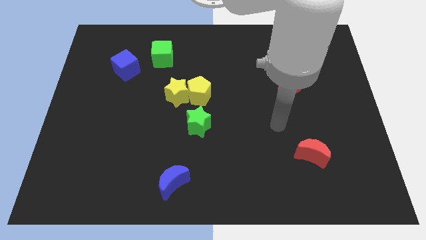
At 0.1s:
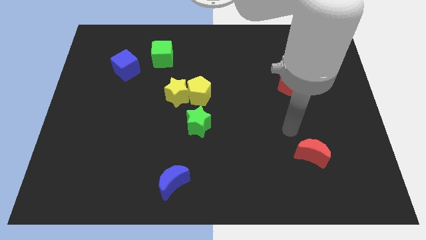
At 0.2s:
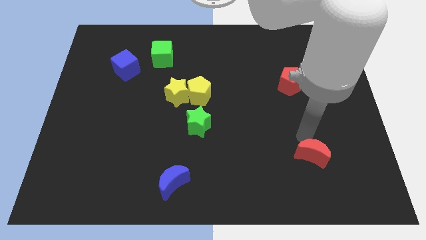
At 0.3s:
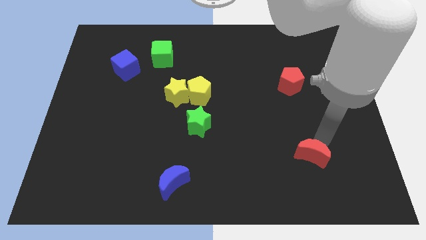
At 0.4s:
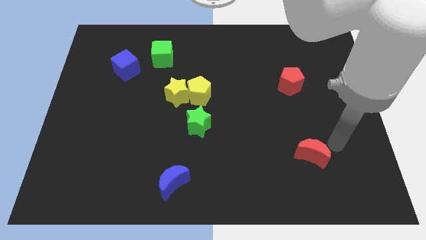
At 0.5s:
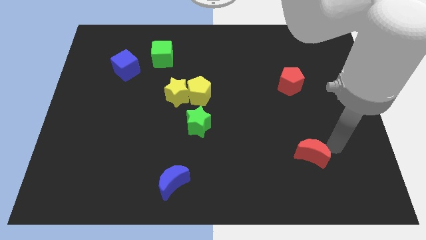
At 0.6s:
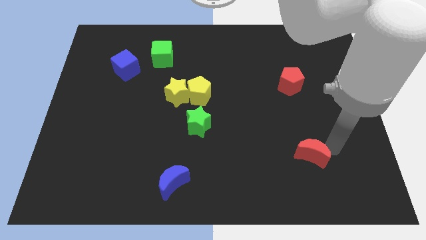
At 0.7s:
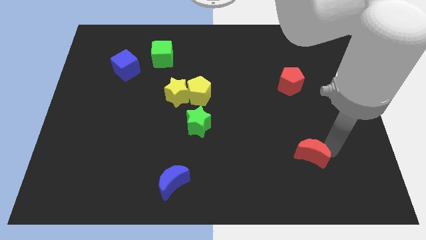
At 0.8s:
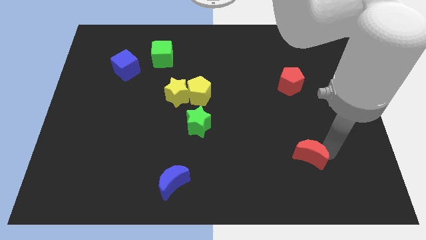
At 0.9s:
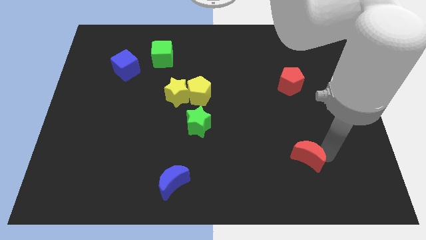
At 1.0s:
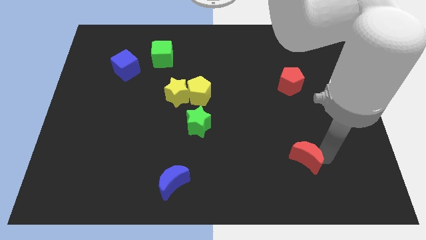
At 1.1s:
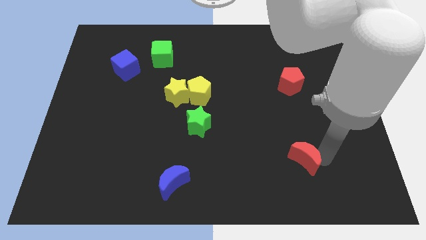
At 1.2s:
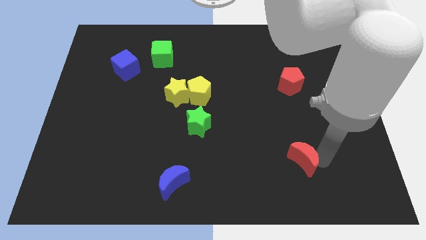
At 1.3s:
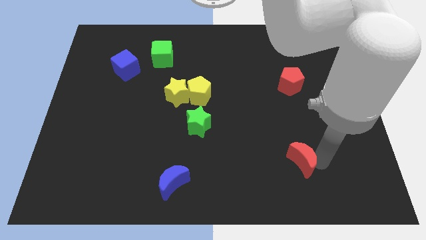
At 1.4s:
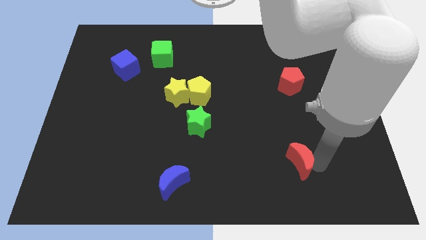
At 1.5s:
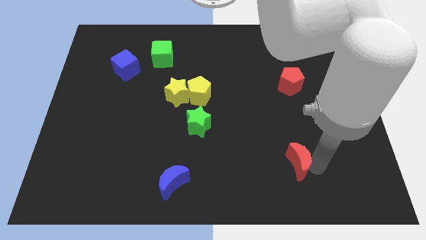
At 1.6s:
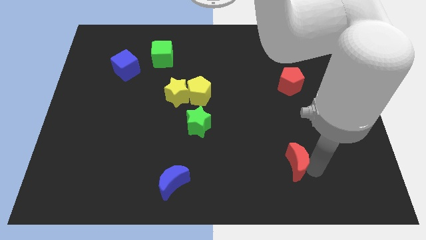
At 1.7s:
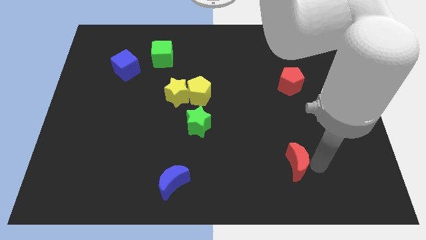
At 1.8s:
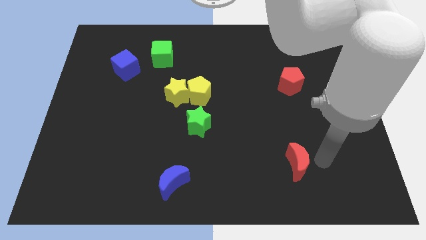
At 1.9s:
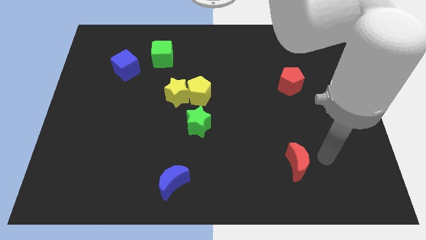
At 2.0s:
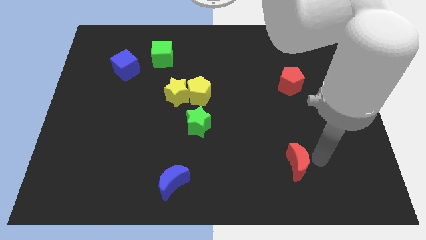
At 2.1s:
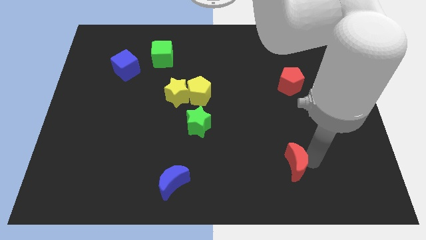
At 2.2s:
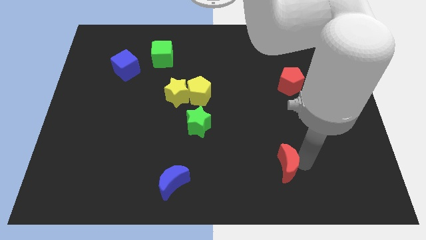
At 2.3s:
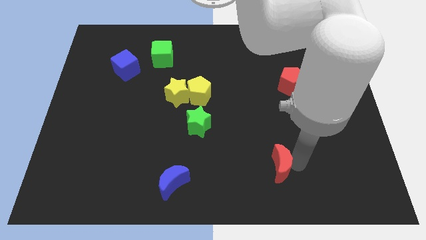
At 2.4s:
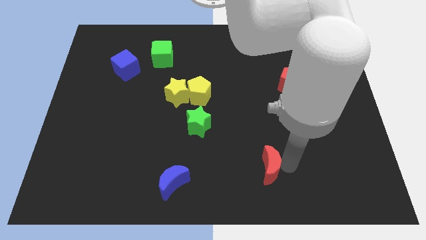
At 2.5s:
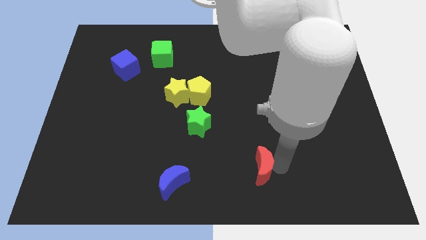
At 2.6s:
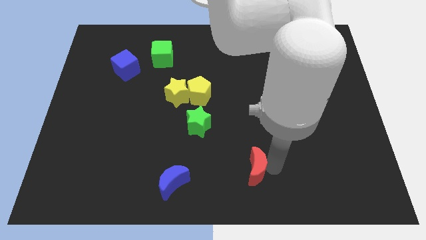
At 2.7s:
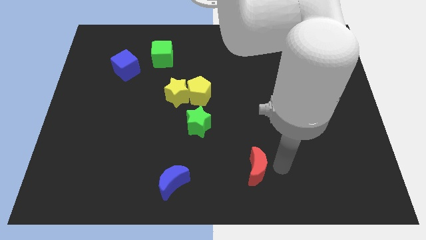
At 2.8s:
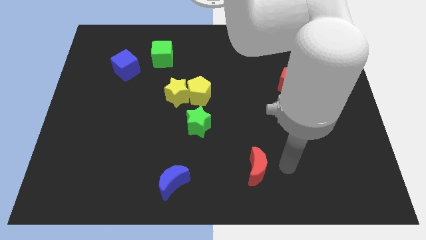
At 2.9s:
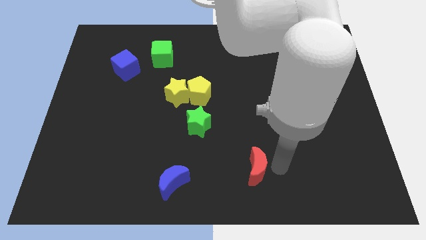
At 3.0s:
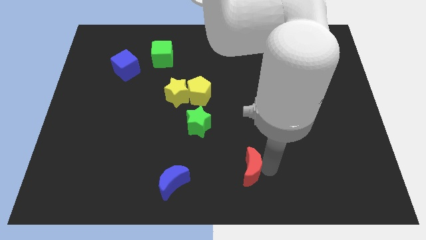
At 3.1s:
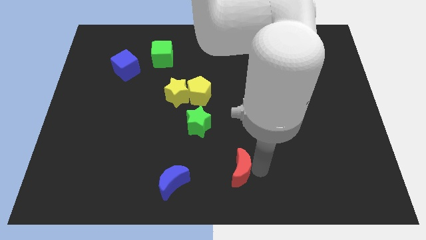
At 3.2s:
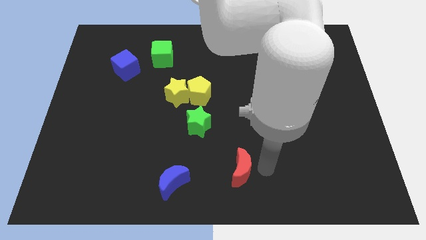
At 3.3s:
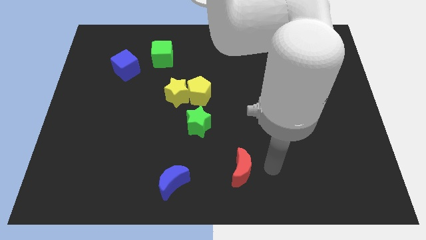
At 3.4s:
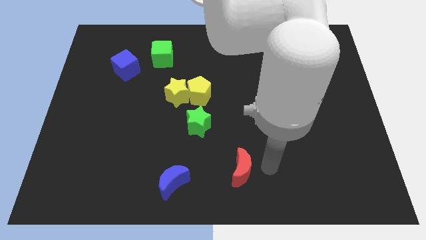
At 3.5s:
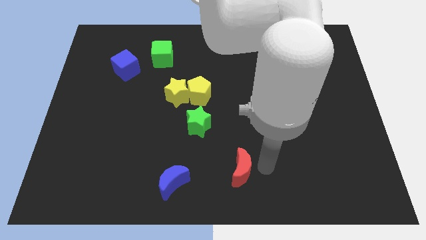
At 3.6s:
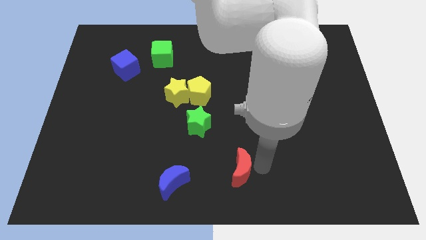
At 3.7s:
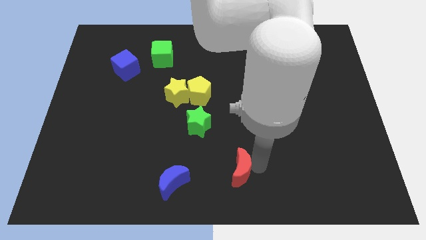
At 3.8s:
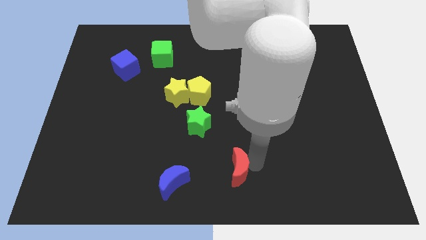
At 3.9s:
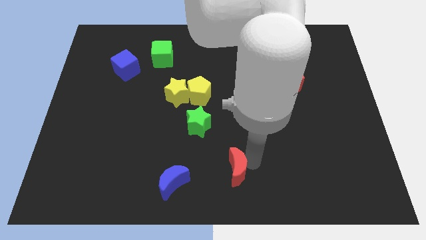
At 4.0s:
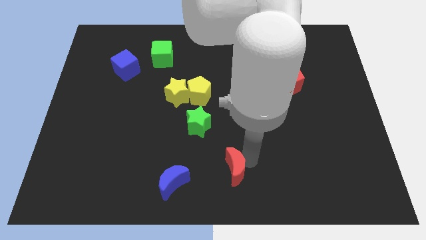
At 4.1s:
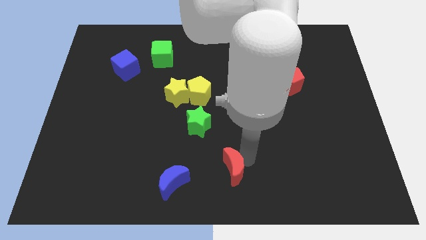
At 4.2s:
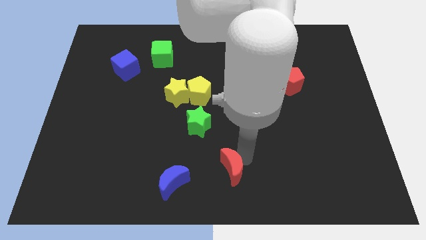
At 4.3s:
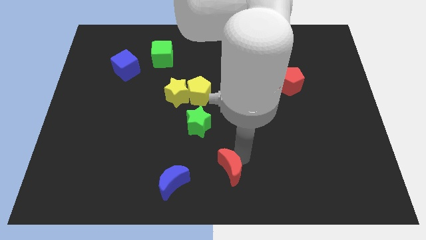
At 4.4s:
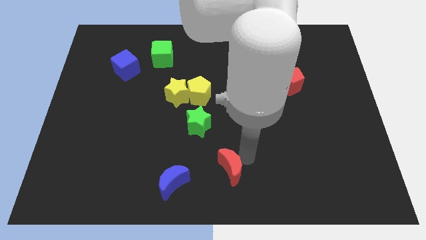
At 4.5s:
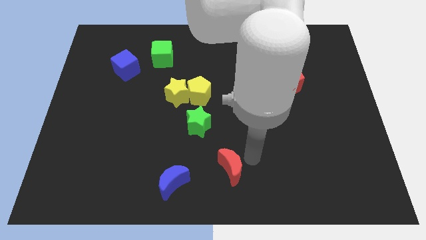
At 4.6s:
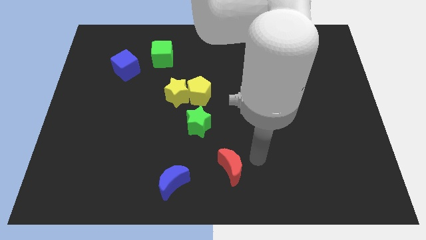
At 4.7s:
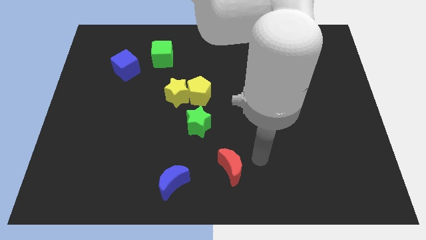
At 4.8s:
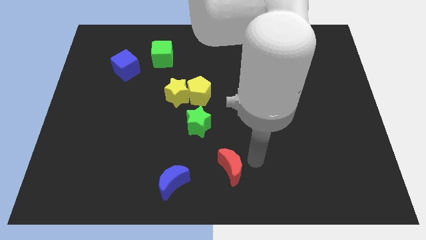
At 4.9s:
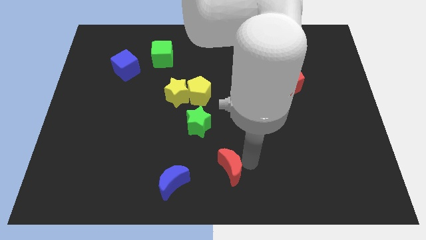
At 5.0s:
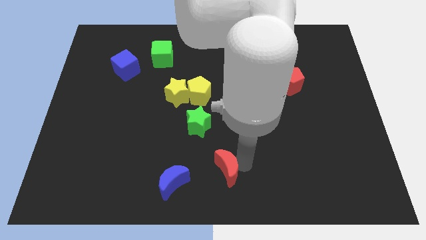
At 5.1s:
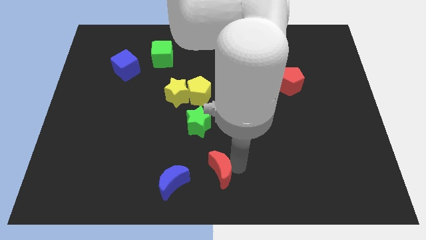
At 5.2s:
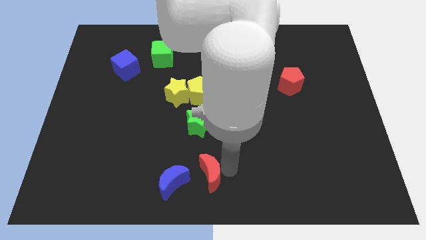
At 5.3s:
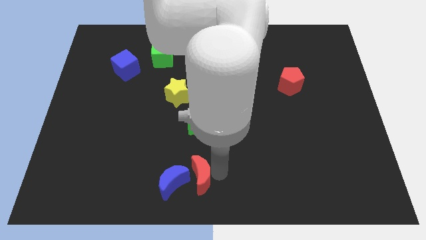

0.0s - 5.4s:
move the red moon towards the blue moon

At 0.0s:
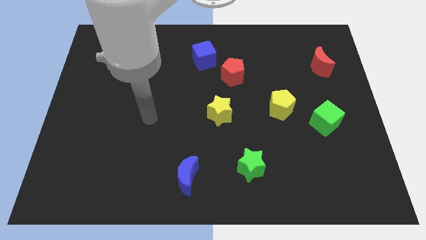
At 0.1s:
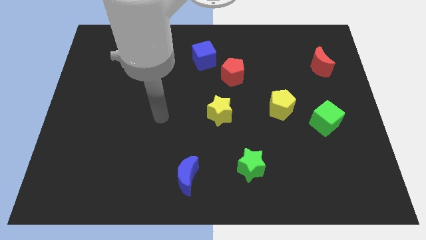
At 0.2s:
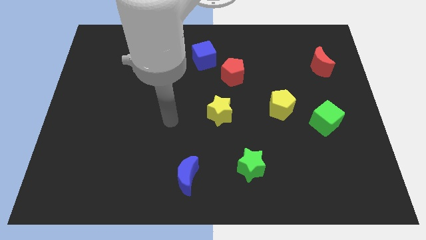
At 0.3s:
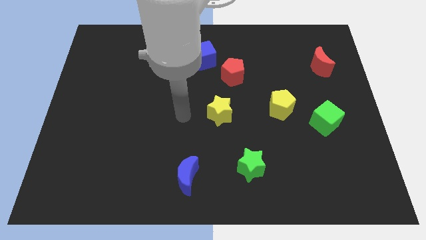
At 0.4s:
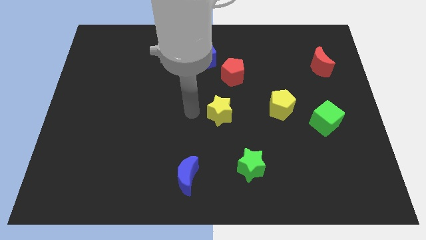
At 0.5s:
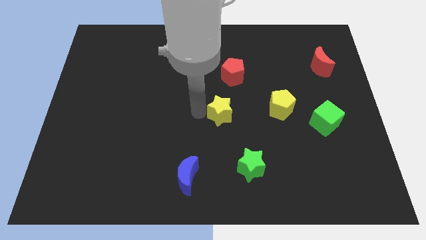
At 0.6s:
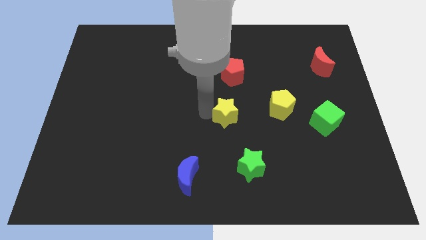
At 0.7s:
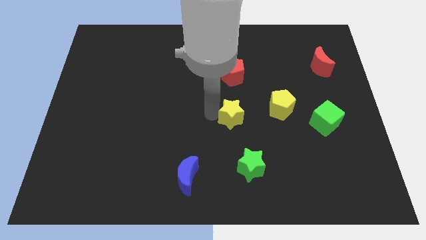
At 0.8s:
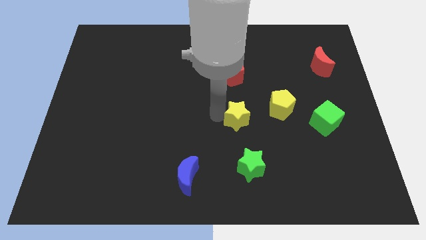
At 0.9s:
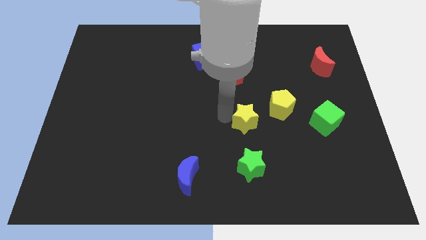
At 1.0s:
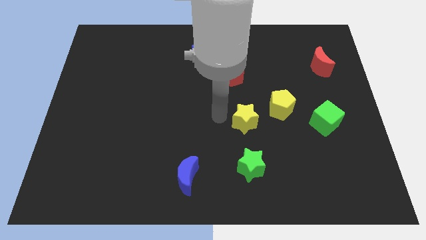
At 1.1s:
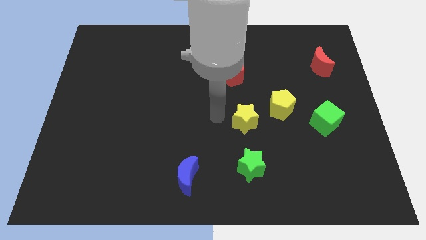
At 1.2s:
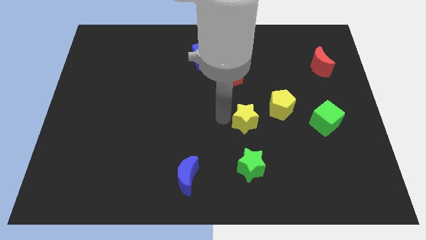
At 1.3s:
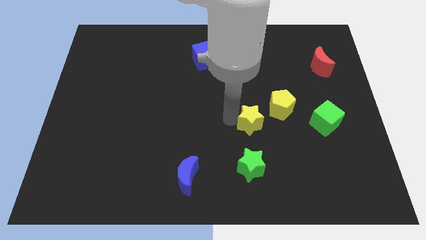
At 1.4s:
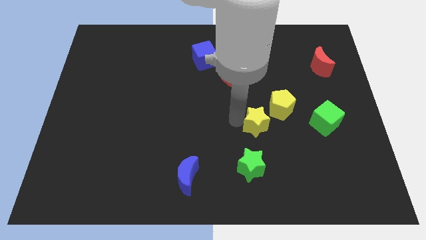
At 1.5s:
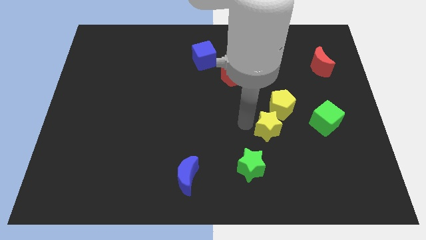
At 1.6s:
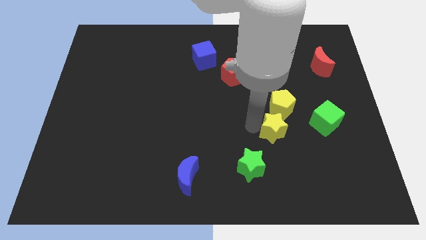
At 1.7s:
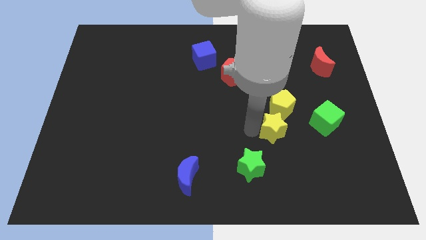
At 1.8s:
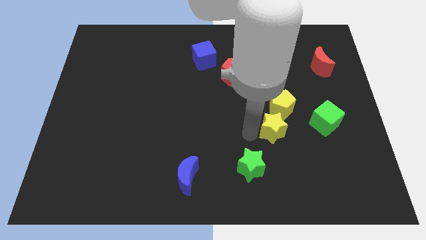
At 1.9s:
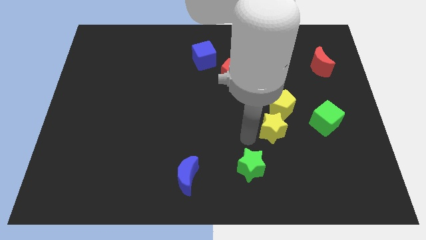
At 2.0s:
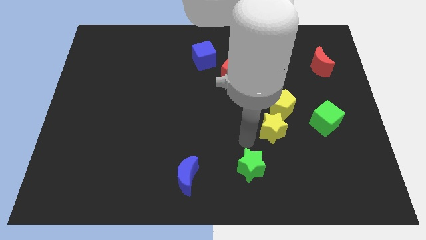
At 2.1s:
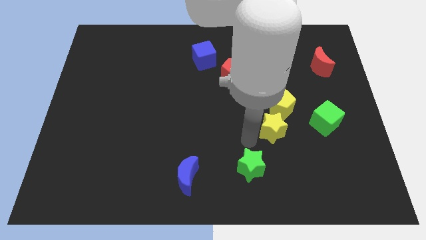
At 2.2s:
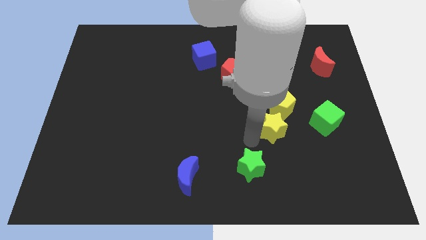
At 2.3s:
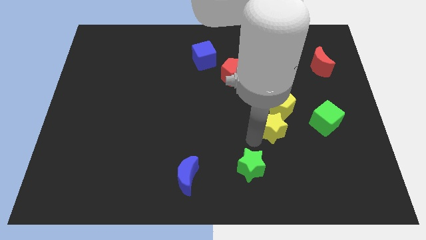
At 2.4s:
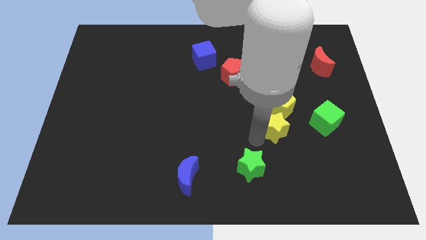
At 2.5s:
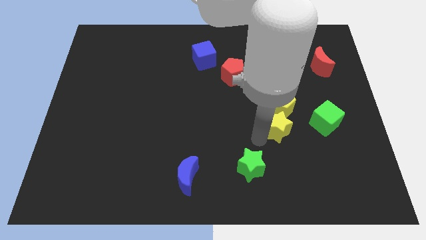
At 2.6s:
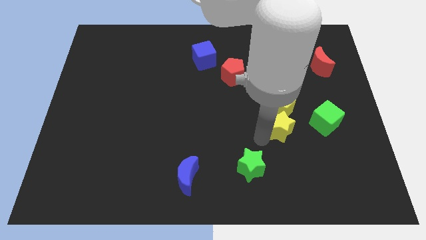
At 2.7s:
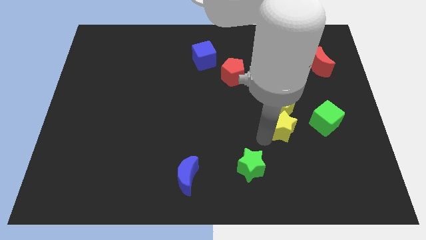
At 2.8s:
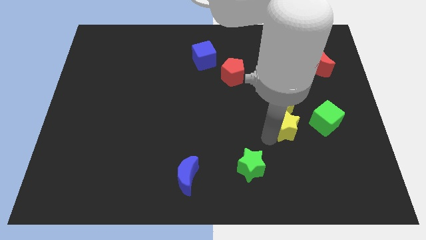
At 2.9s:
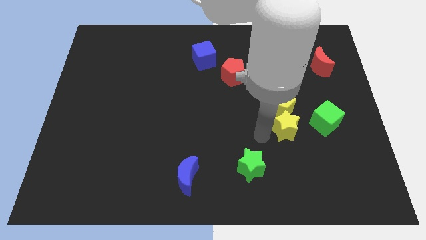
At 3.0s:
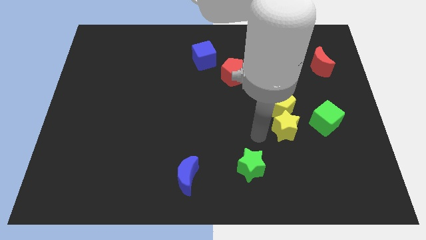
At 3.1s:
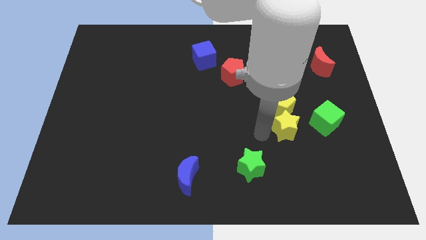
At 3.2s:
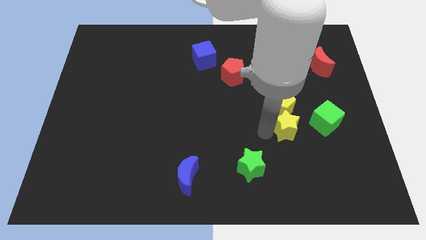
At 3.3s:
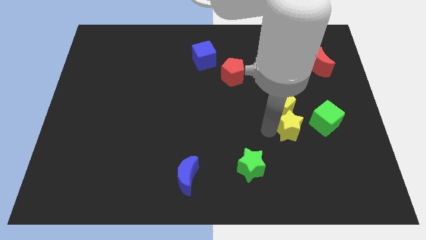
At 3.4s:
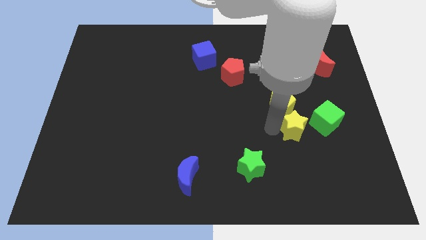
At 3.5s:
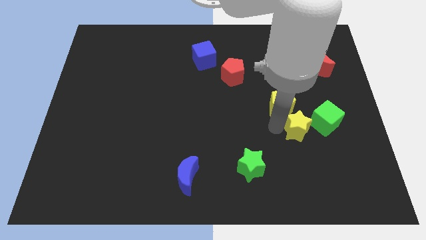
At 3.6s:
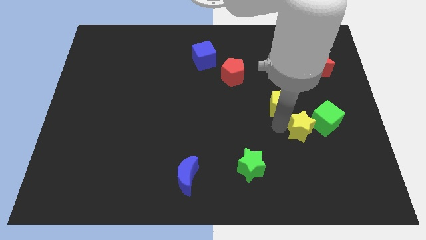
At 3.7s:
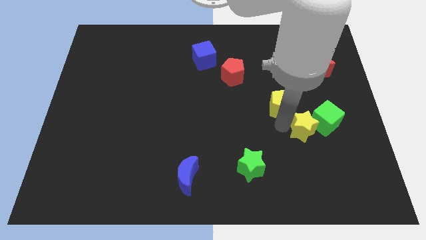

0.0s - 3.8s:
push the yellow star next to the green cube
